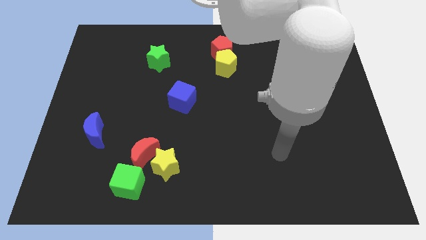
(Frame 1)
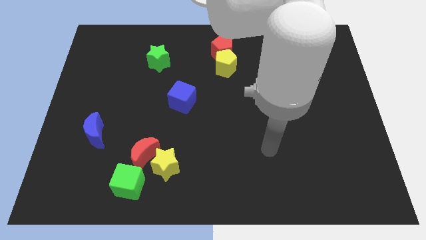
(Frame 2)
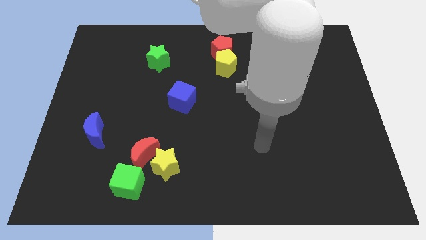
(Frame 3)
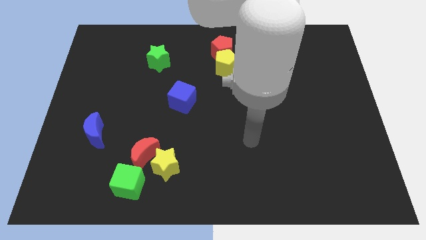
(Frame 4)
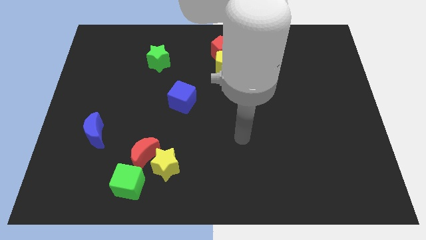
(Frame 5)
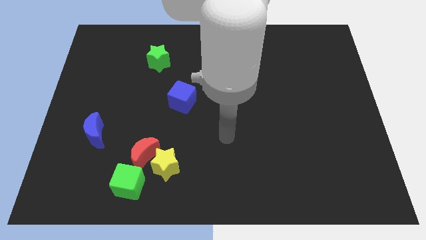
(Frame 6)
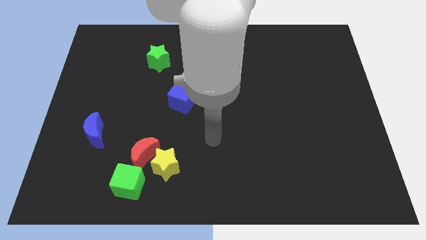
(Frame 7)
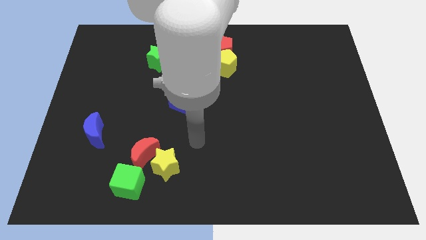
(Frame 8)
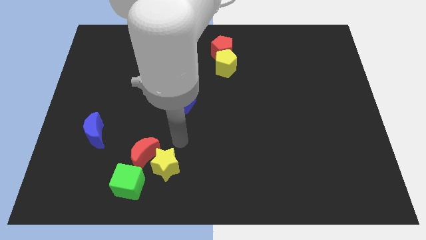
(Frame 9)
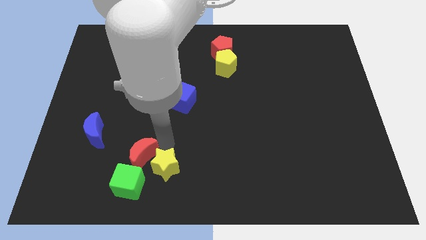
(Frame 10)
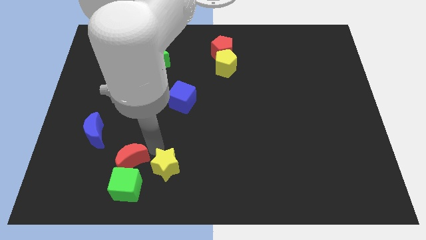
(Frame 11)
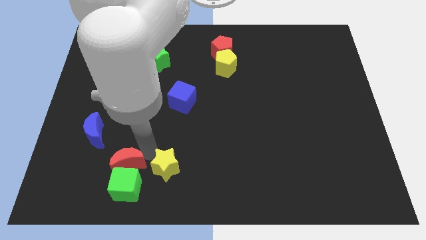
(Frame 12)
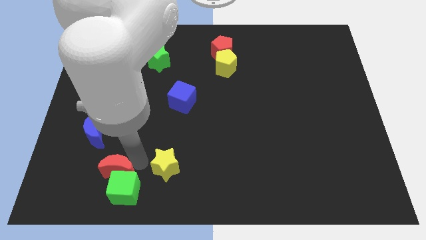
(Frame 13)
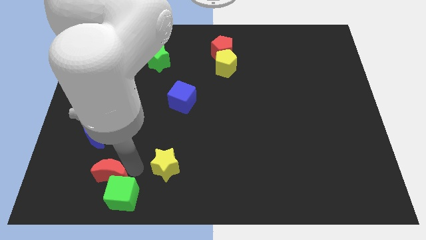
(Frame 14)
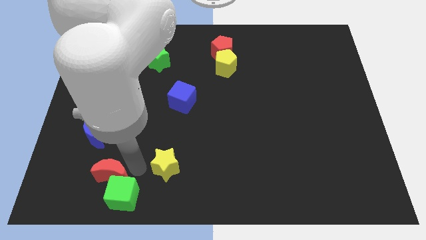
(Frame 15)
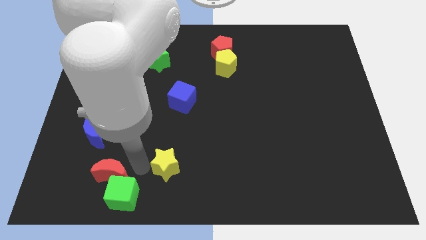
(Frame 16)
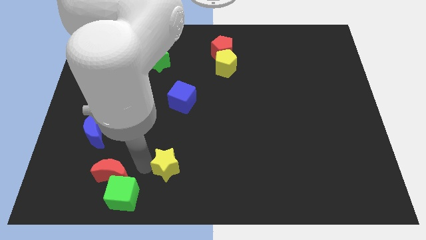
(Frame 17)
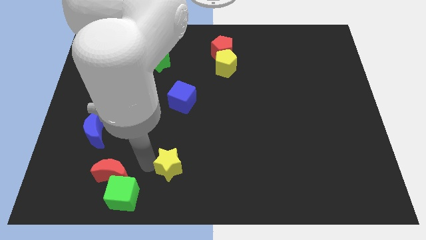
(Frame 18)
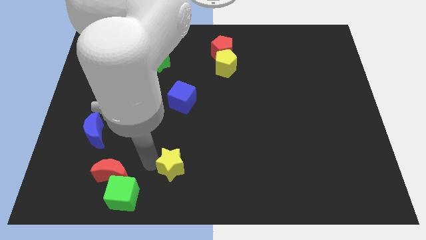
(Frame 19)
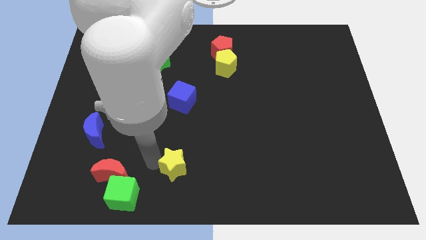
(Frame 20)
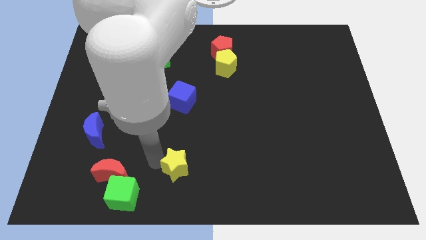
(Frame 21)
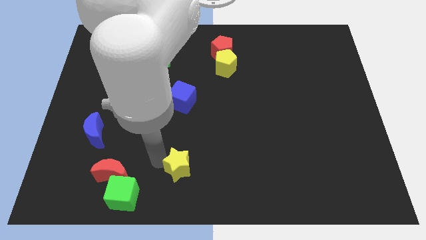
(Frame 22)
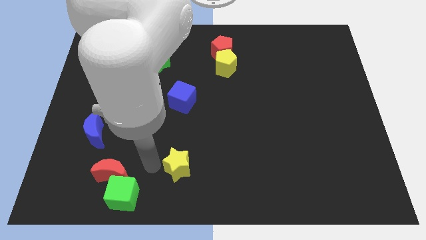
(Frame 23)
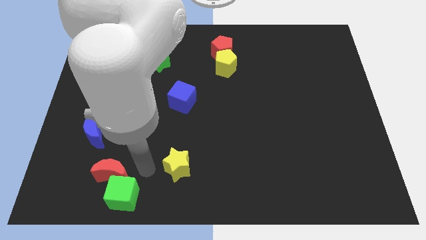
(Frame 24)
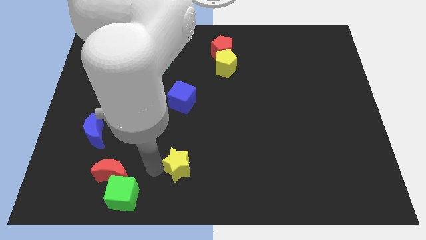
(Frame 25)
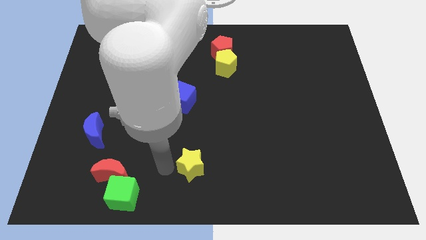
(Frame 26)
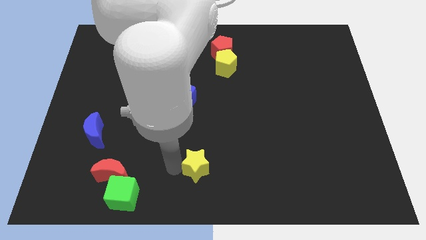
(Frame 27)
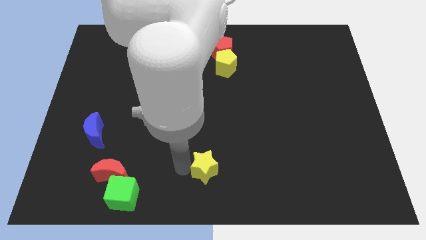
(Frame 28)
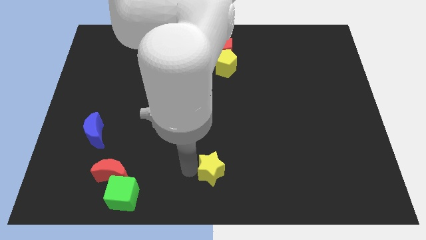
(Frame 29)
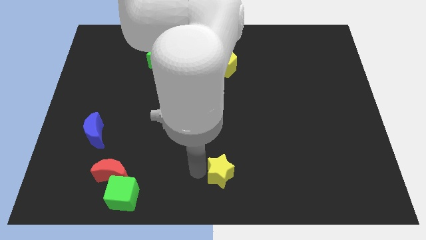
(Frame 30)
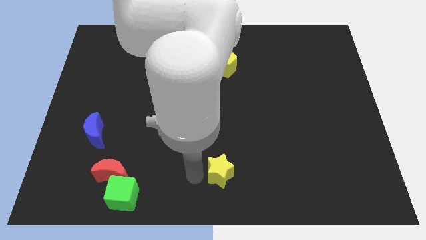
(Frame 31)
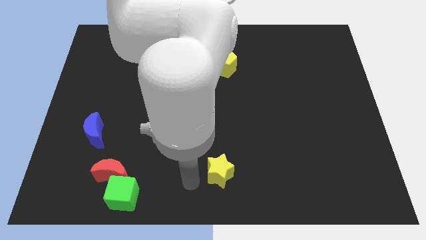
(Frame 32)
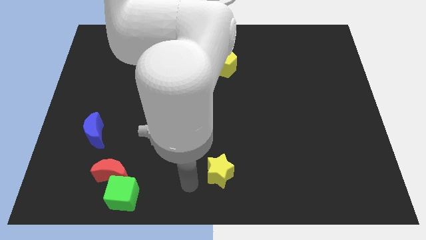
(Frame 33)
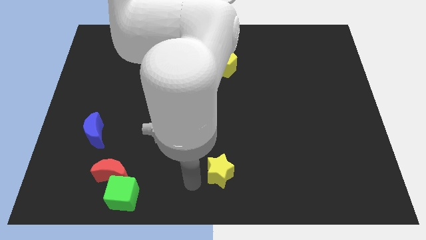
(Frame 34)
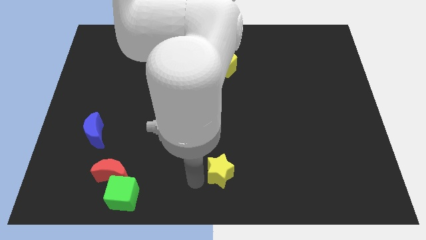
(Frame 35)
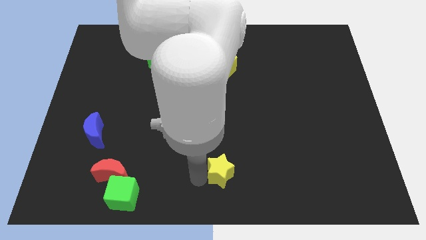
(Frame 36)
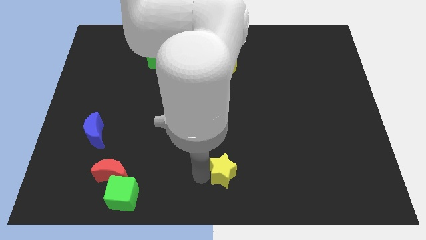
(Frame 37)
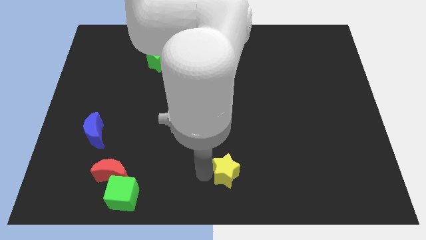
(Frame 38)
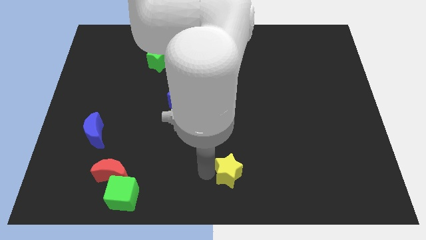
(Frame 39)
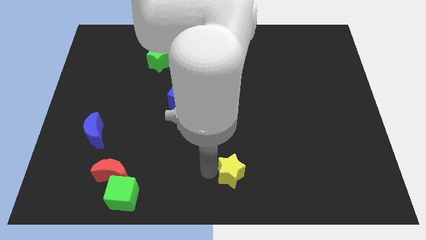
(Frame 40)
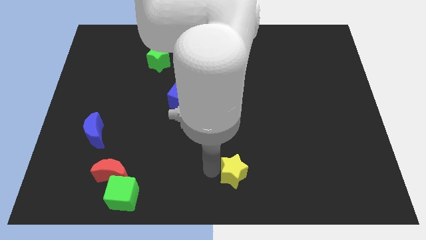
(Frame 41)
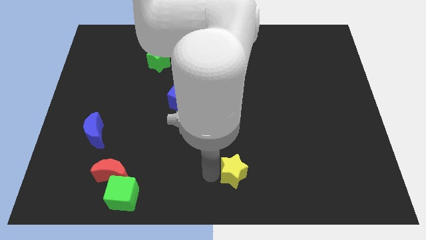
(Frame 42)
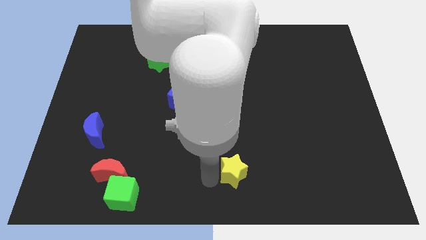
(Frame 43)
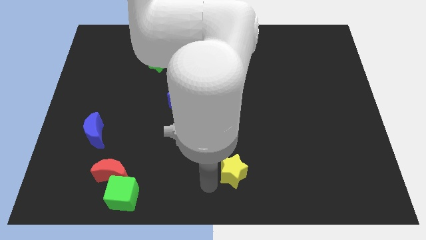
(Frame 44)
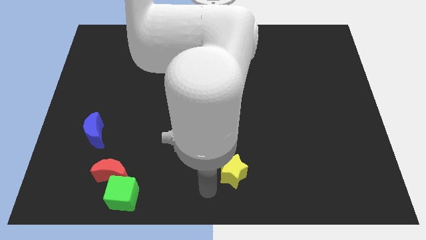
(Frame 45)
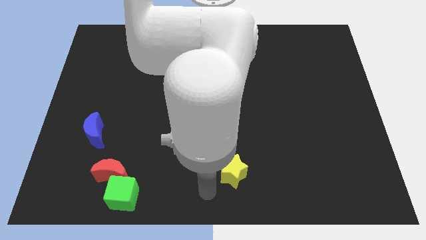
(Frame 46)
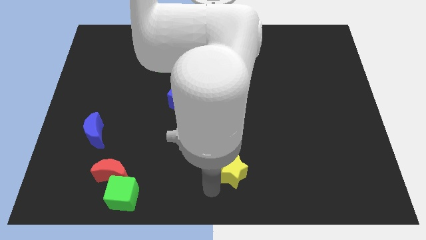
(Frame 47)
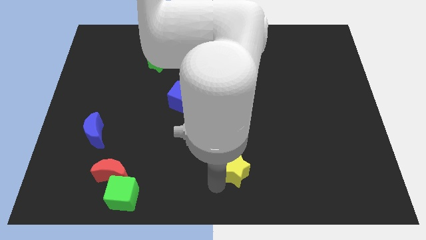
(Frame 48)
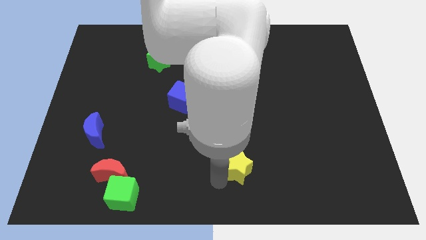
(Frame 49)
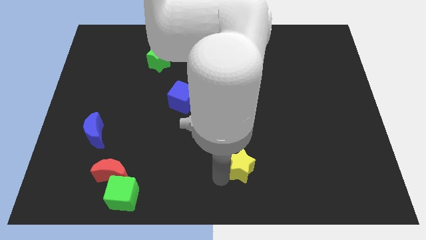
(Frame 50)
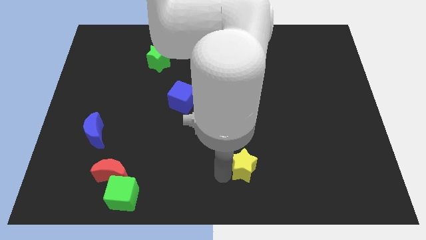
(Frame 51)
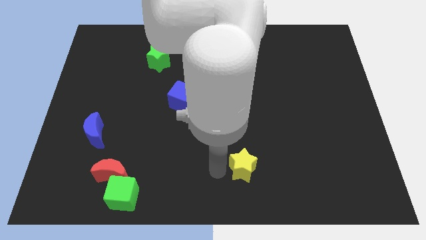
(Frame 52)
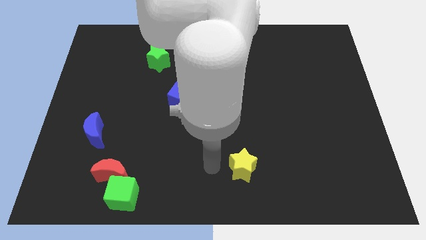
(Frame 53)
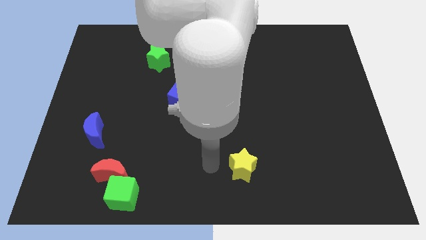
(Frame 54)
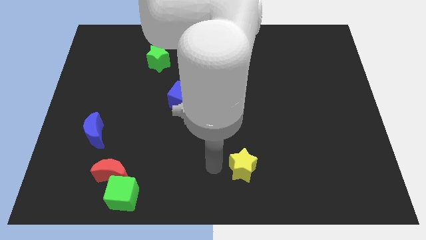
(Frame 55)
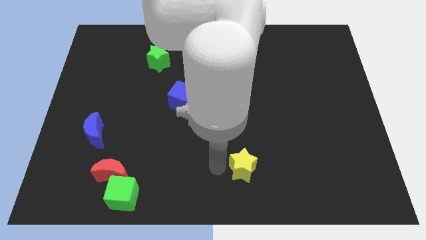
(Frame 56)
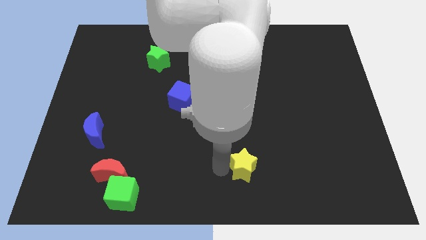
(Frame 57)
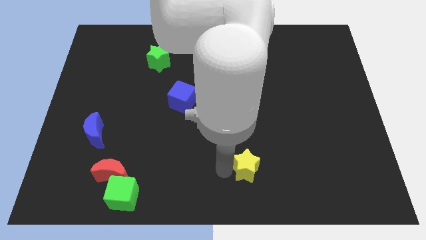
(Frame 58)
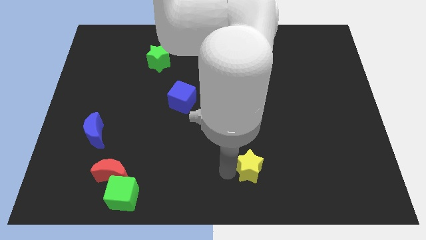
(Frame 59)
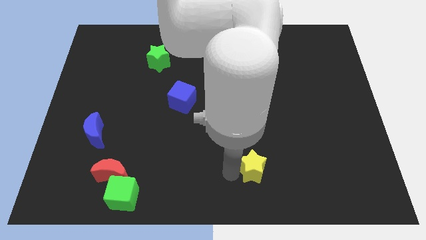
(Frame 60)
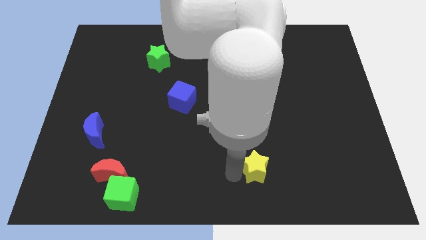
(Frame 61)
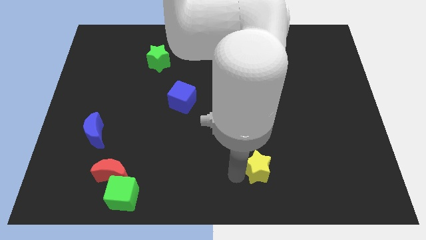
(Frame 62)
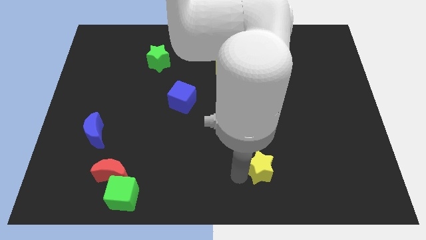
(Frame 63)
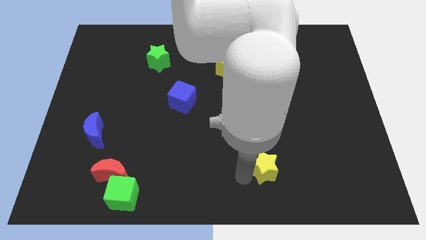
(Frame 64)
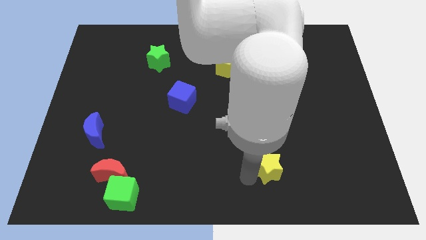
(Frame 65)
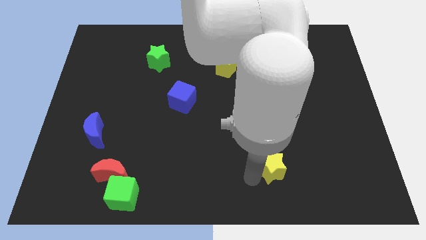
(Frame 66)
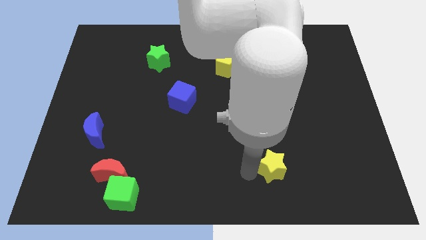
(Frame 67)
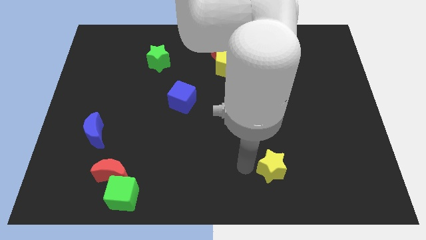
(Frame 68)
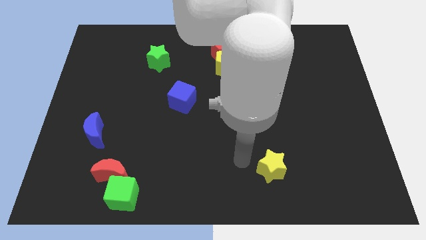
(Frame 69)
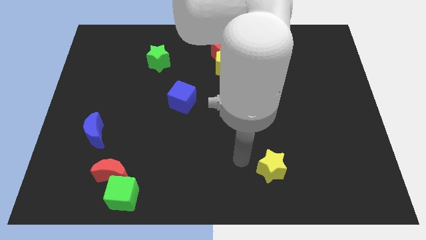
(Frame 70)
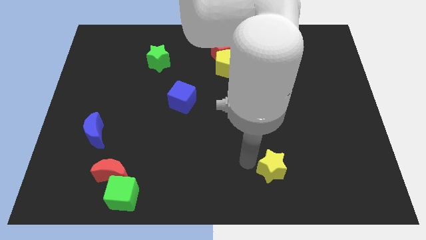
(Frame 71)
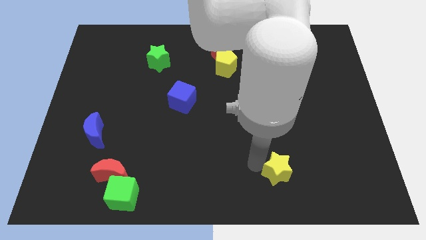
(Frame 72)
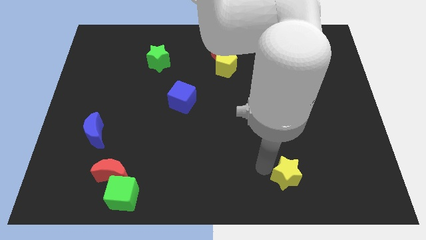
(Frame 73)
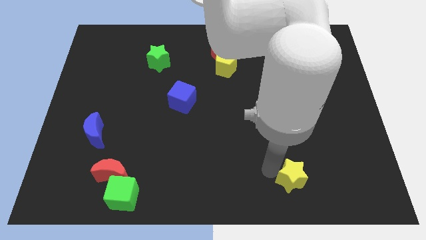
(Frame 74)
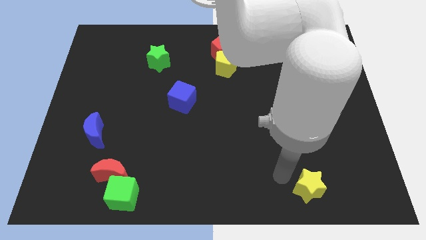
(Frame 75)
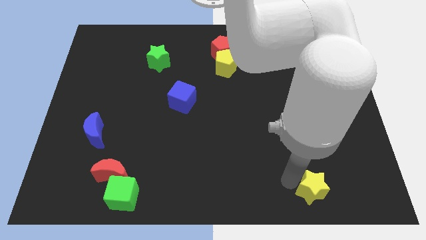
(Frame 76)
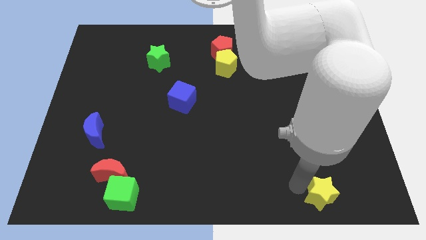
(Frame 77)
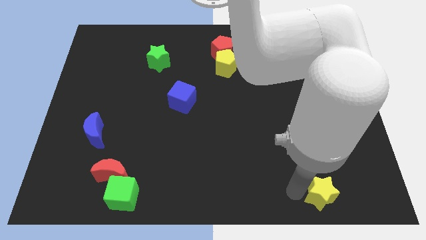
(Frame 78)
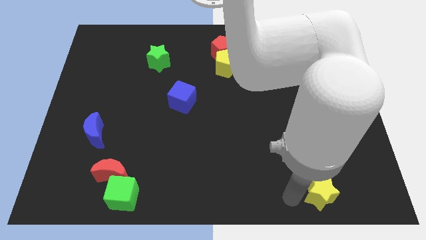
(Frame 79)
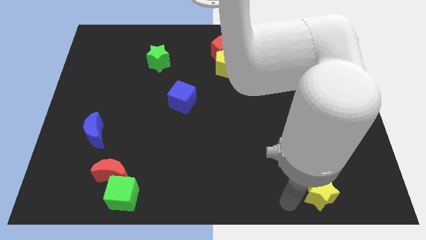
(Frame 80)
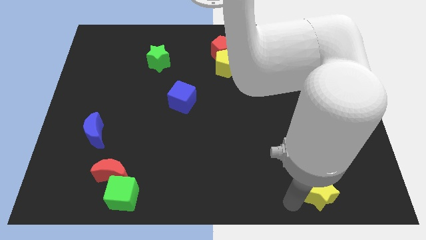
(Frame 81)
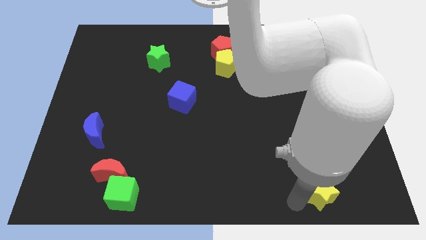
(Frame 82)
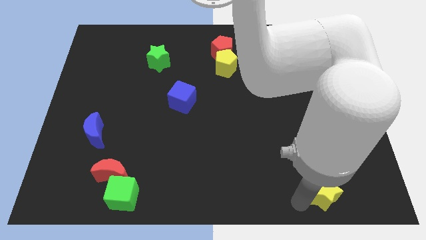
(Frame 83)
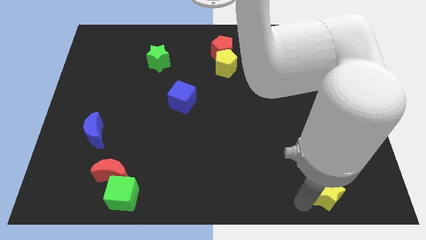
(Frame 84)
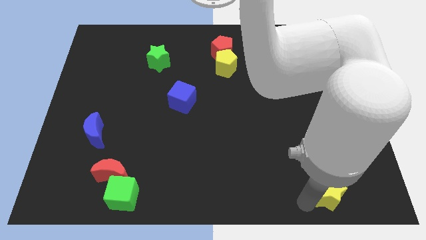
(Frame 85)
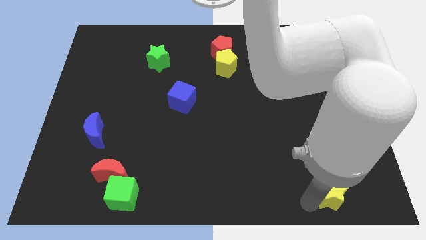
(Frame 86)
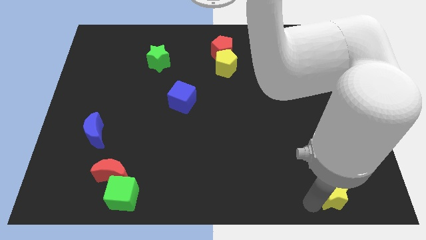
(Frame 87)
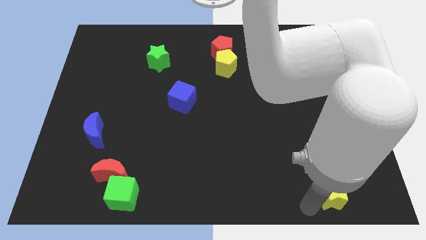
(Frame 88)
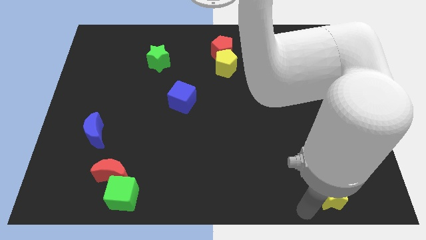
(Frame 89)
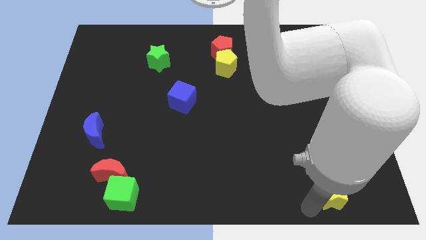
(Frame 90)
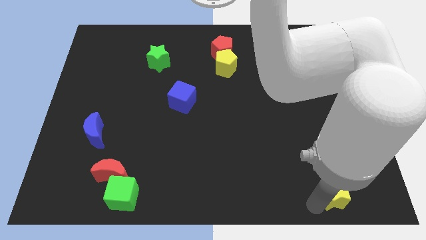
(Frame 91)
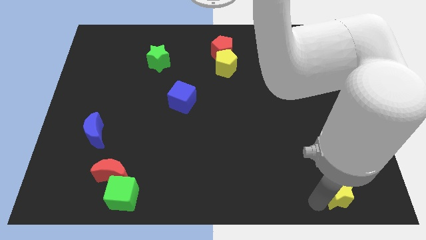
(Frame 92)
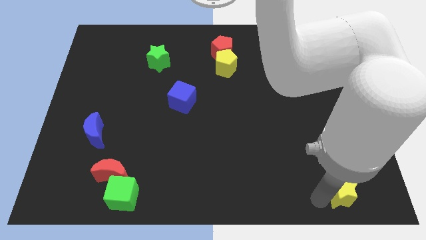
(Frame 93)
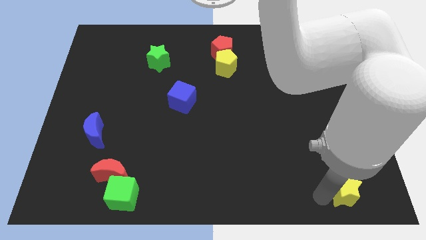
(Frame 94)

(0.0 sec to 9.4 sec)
push the yellow star to the bottom right
